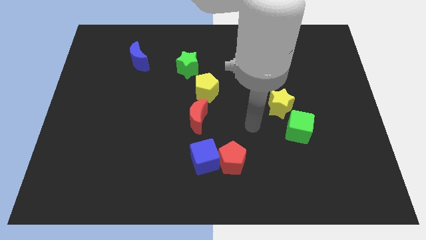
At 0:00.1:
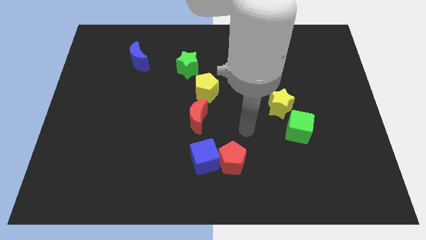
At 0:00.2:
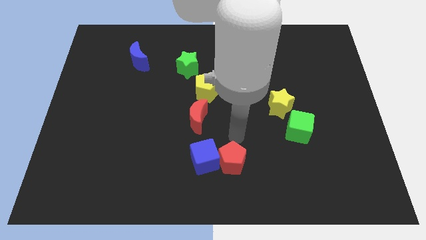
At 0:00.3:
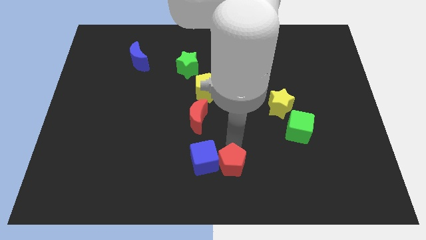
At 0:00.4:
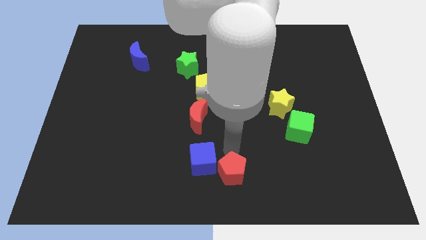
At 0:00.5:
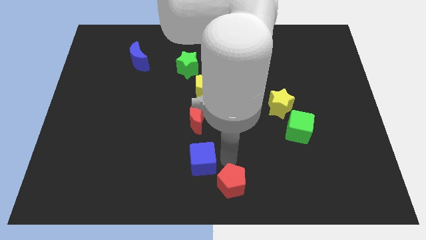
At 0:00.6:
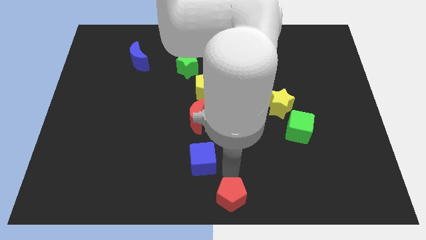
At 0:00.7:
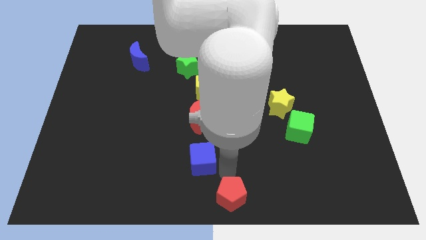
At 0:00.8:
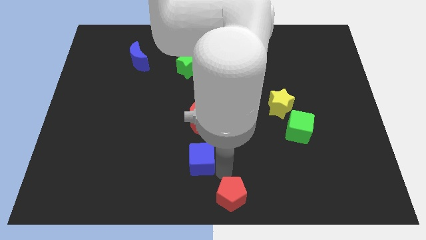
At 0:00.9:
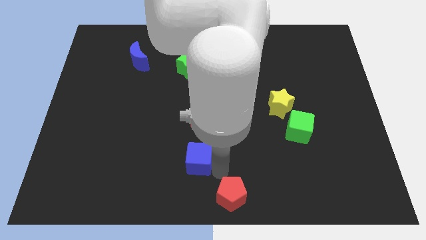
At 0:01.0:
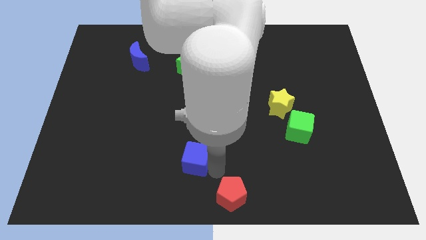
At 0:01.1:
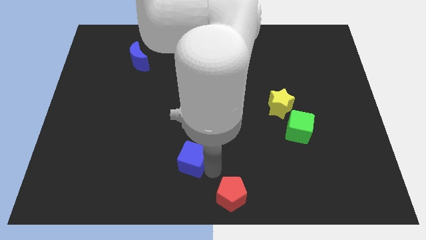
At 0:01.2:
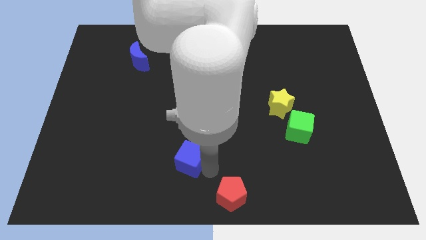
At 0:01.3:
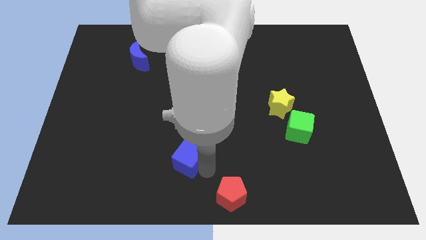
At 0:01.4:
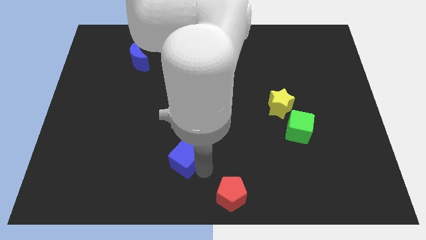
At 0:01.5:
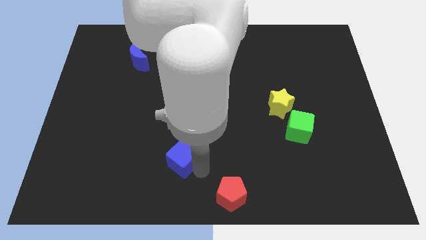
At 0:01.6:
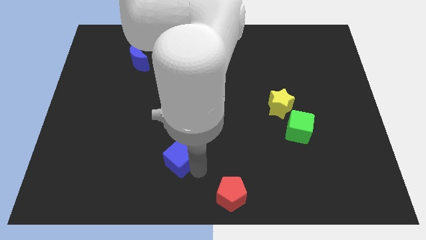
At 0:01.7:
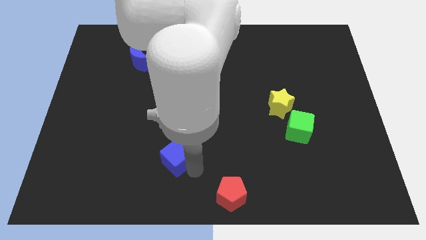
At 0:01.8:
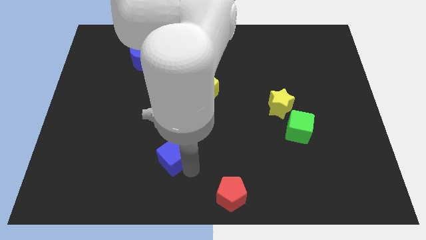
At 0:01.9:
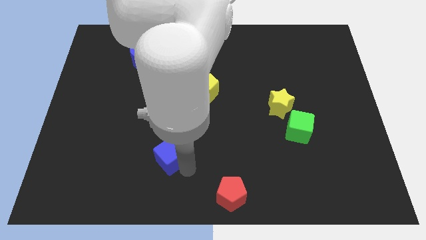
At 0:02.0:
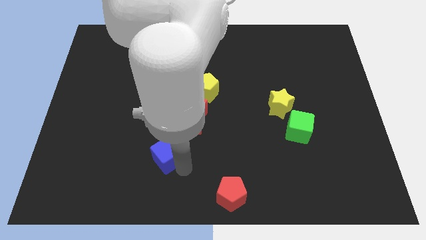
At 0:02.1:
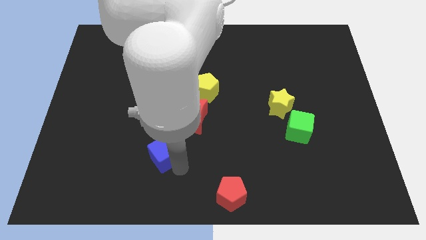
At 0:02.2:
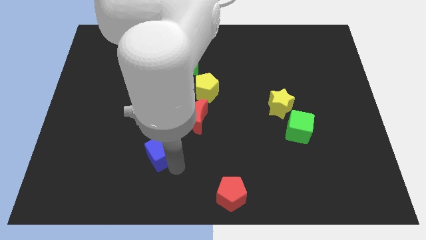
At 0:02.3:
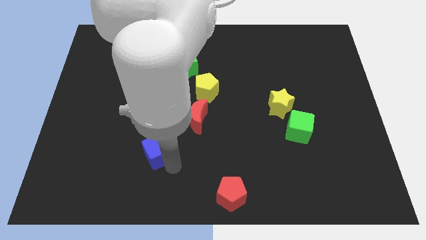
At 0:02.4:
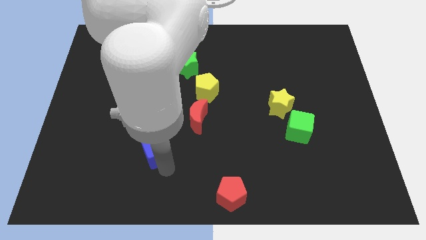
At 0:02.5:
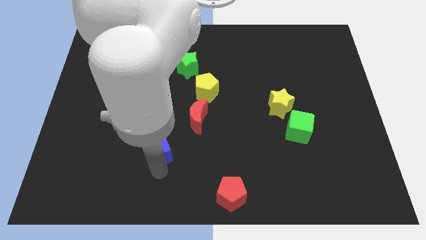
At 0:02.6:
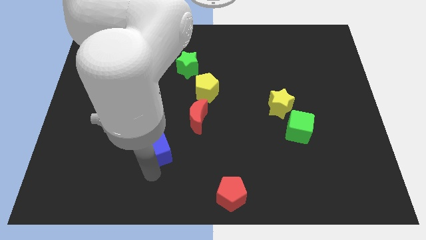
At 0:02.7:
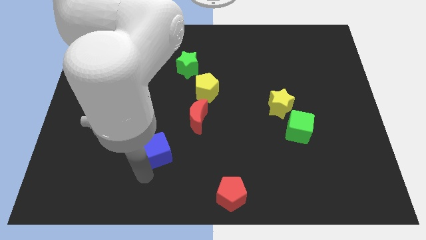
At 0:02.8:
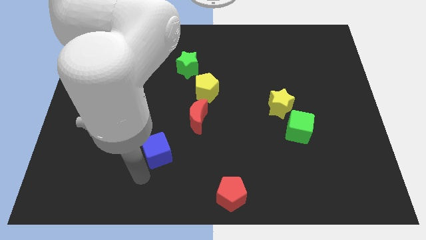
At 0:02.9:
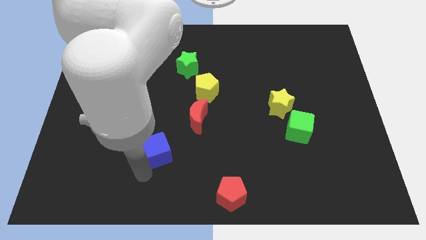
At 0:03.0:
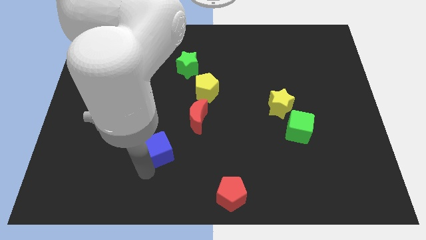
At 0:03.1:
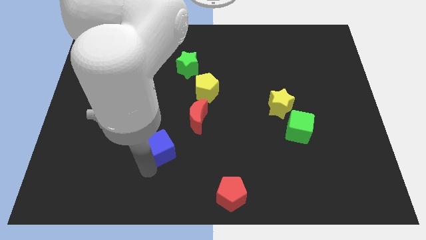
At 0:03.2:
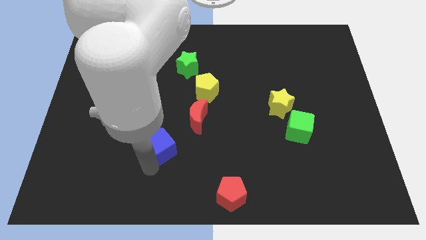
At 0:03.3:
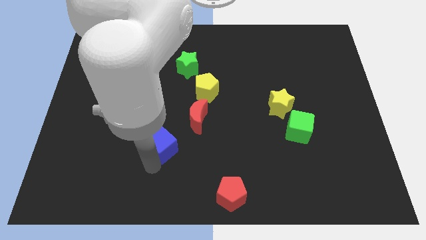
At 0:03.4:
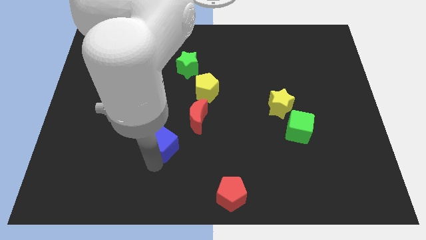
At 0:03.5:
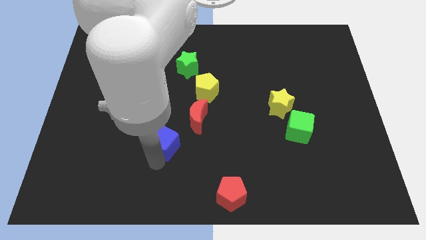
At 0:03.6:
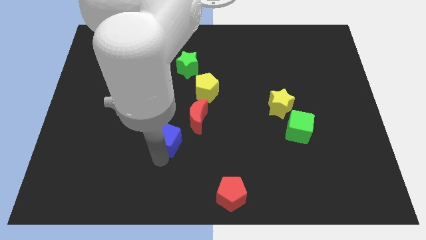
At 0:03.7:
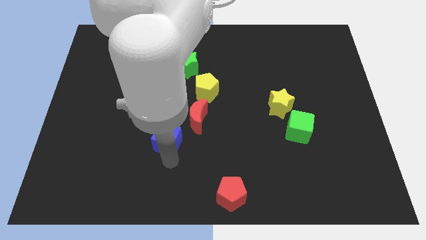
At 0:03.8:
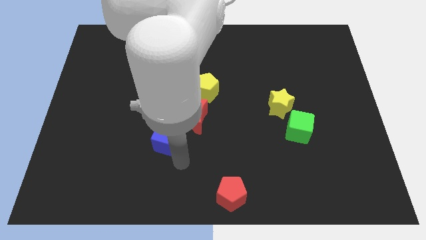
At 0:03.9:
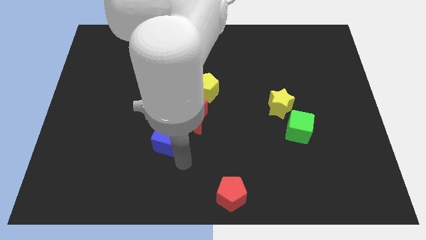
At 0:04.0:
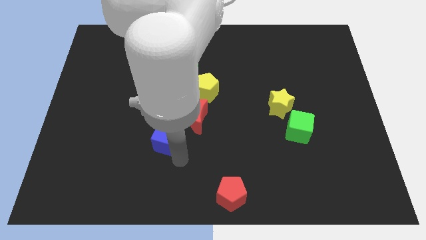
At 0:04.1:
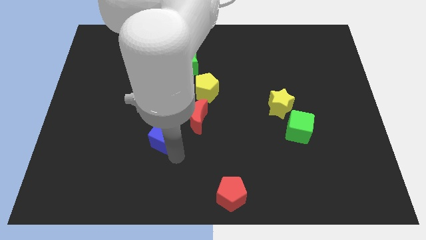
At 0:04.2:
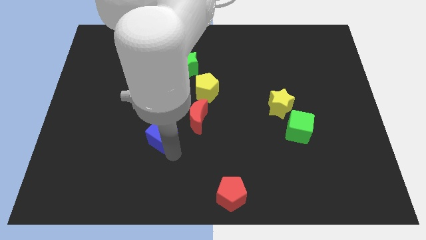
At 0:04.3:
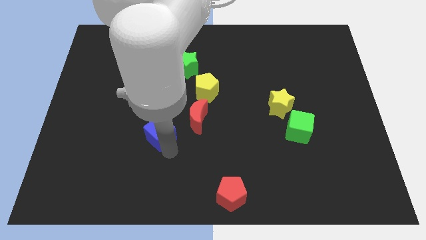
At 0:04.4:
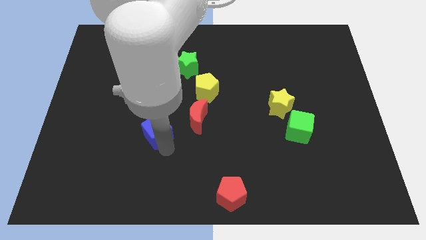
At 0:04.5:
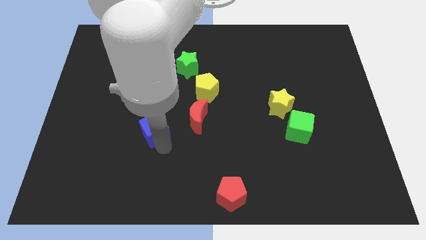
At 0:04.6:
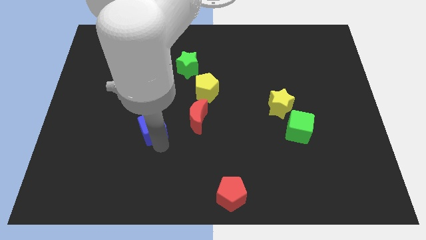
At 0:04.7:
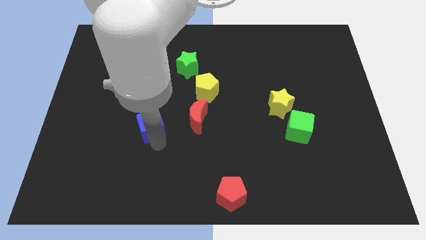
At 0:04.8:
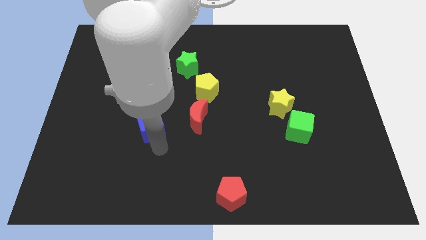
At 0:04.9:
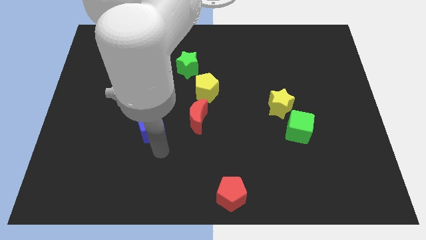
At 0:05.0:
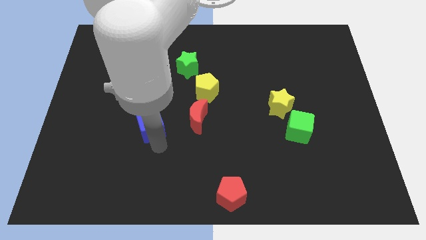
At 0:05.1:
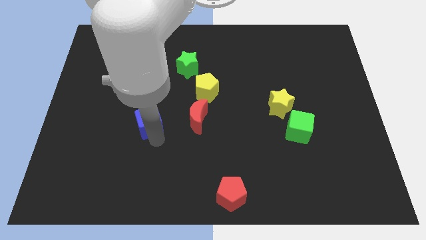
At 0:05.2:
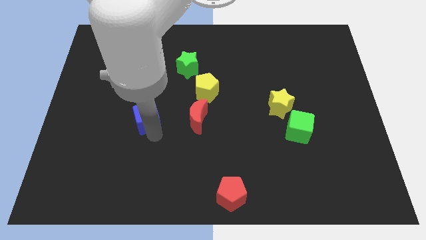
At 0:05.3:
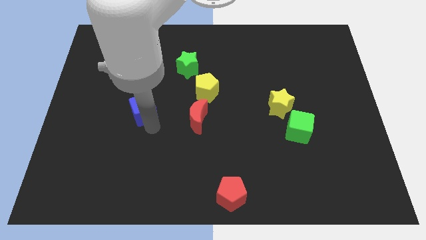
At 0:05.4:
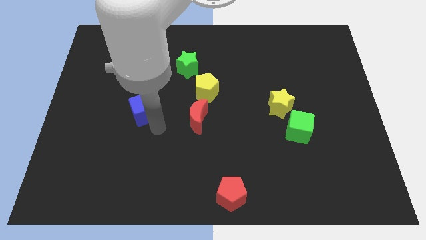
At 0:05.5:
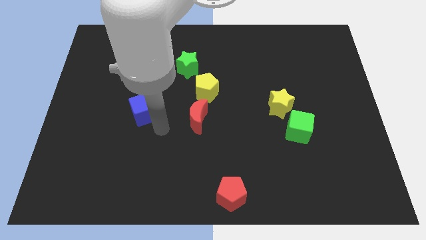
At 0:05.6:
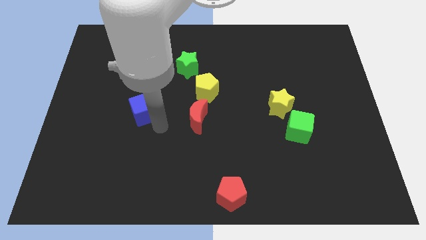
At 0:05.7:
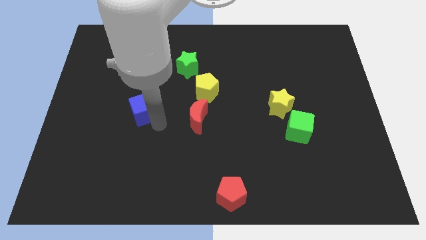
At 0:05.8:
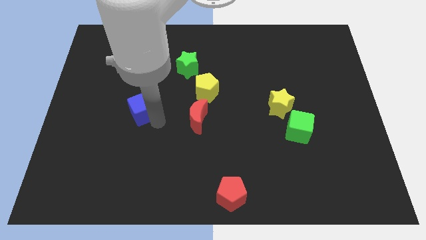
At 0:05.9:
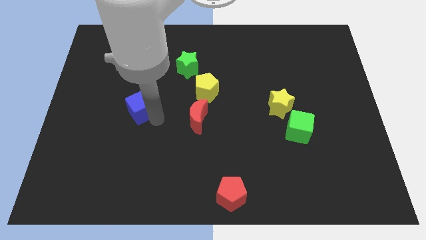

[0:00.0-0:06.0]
move the blue cube upwards and left diagonally

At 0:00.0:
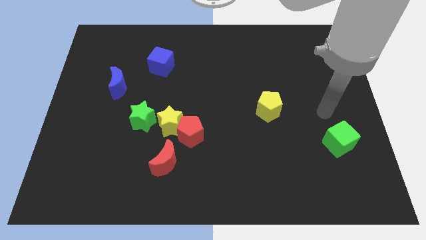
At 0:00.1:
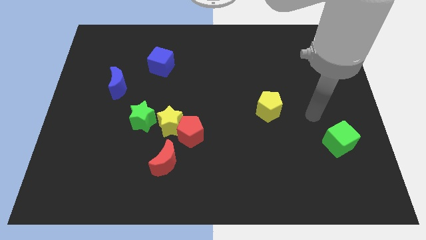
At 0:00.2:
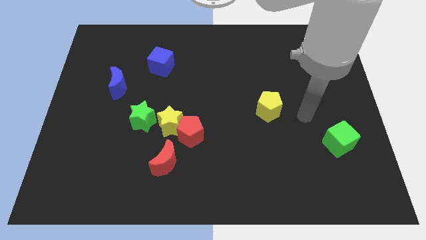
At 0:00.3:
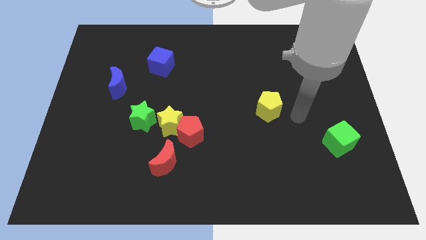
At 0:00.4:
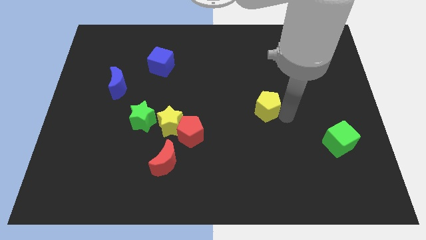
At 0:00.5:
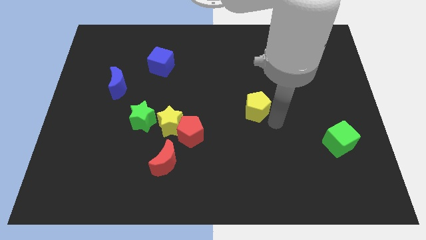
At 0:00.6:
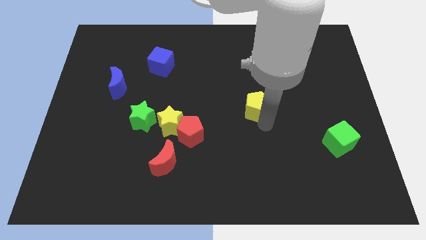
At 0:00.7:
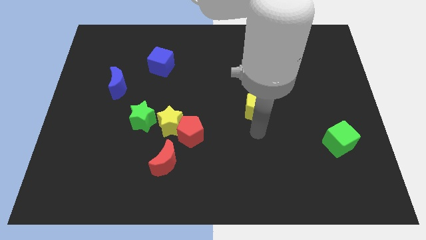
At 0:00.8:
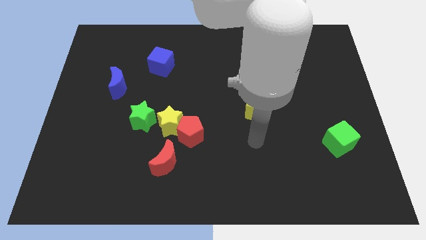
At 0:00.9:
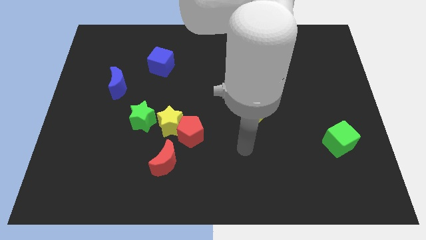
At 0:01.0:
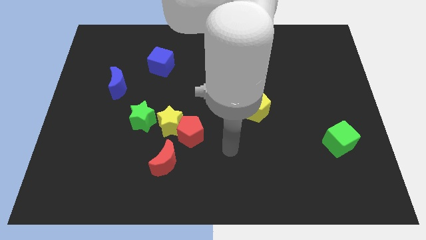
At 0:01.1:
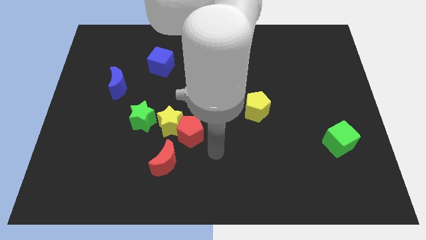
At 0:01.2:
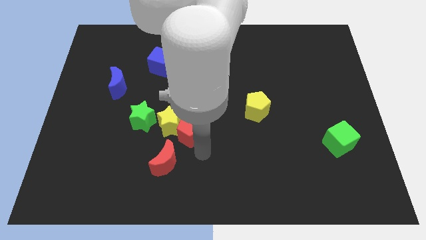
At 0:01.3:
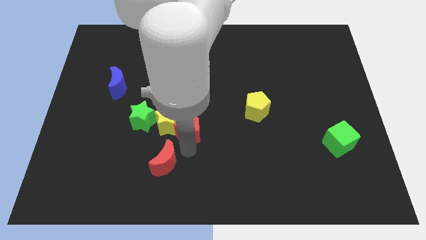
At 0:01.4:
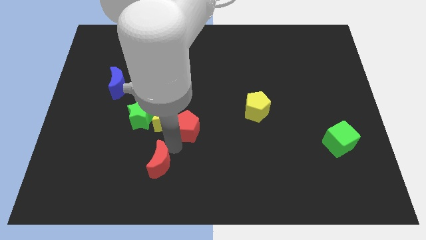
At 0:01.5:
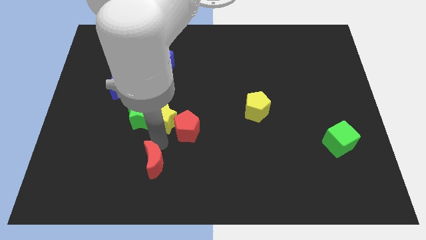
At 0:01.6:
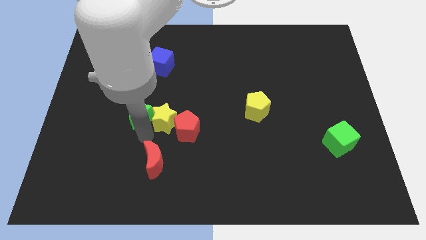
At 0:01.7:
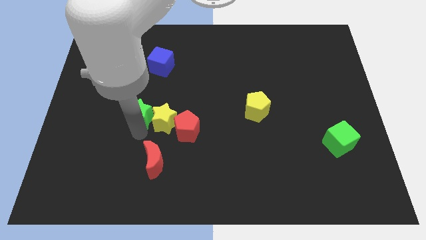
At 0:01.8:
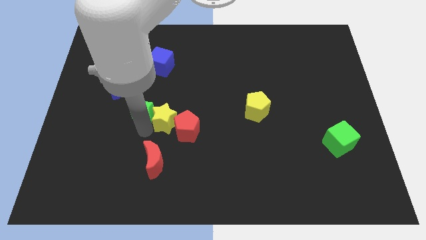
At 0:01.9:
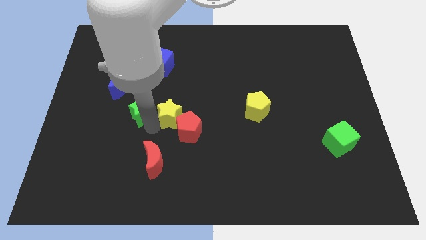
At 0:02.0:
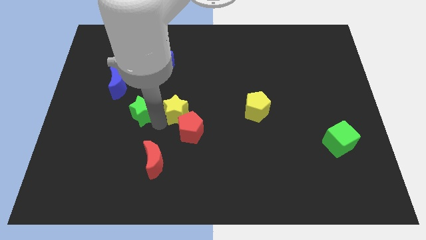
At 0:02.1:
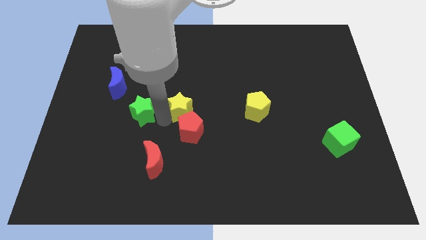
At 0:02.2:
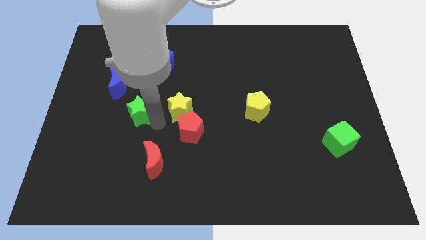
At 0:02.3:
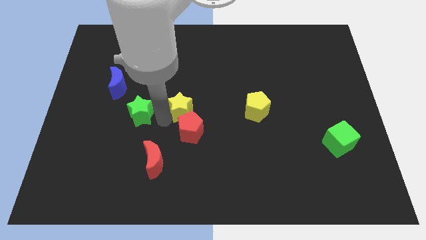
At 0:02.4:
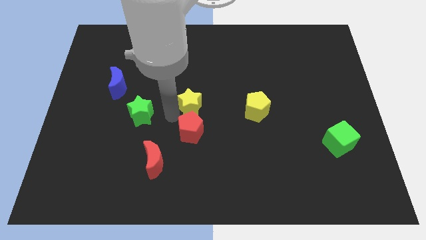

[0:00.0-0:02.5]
push the yellow star diagonally upwards and right a little bit

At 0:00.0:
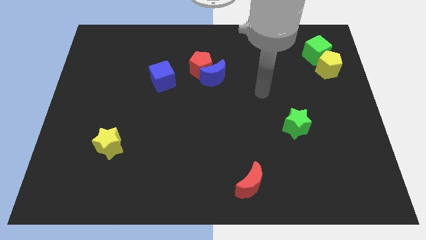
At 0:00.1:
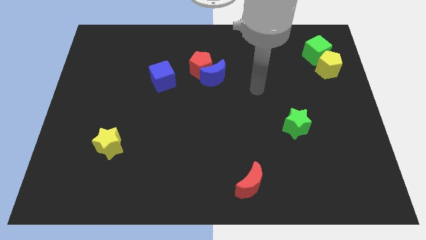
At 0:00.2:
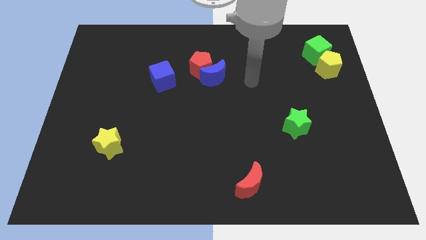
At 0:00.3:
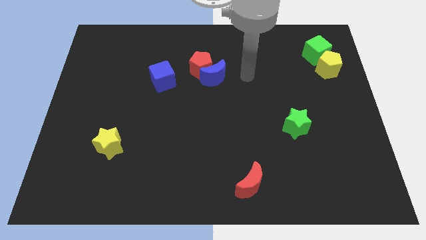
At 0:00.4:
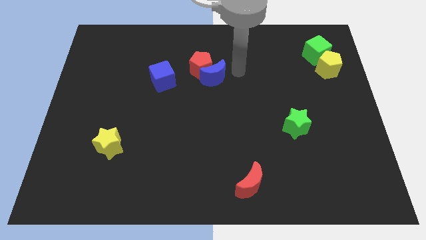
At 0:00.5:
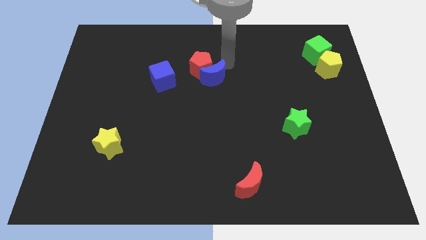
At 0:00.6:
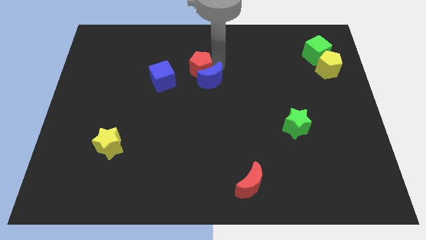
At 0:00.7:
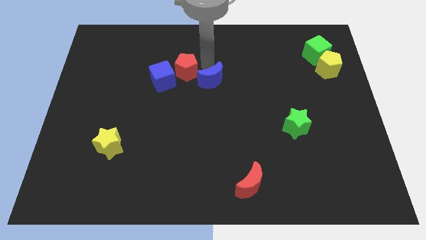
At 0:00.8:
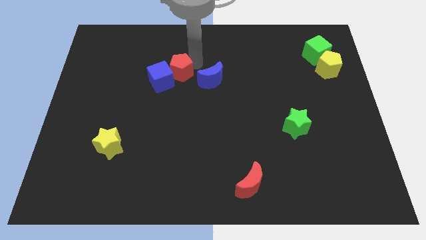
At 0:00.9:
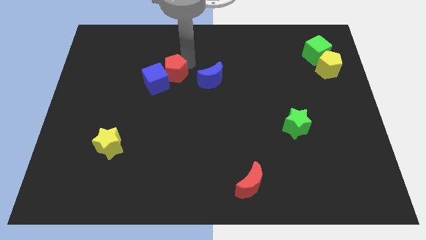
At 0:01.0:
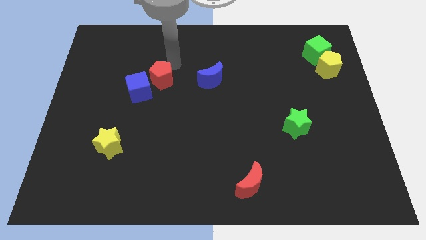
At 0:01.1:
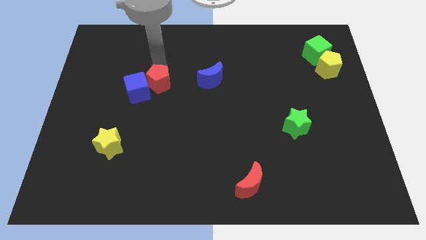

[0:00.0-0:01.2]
move the blue cube a little bit diagonally down and left
